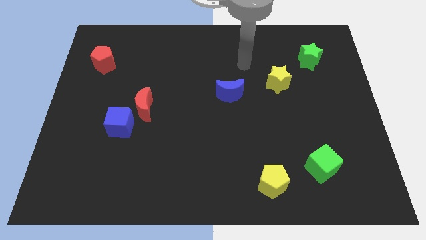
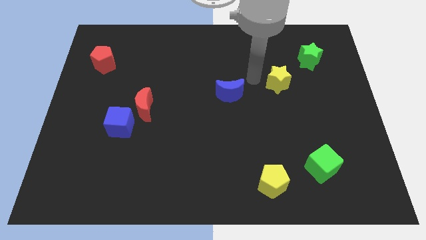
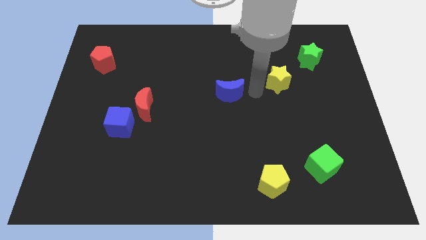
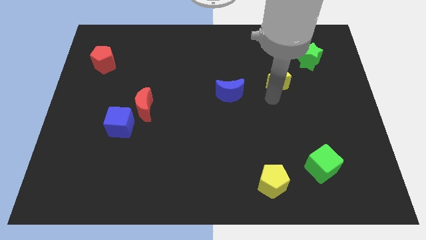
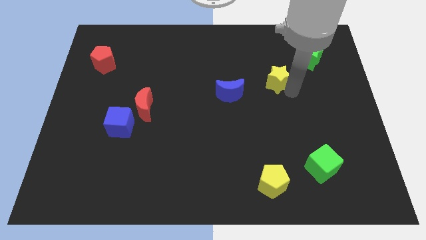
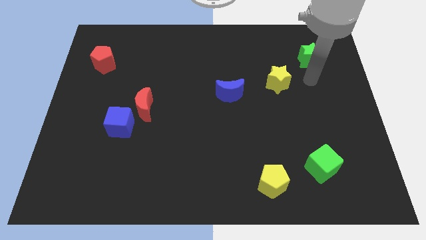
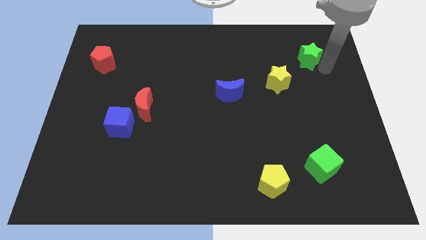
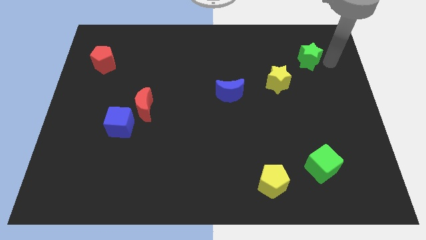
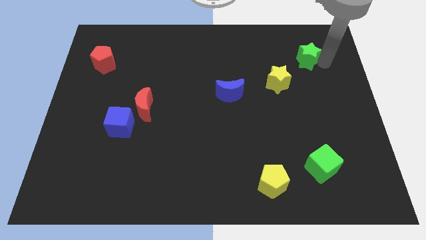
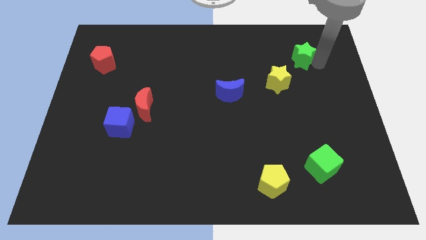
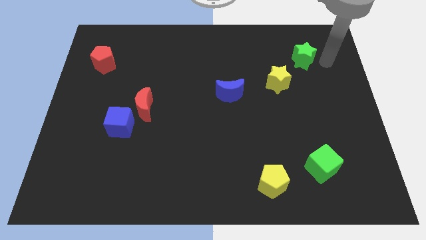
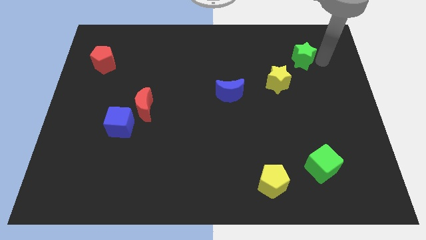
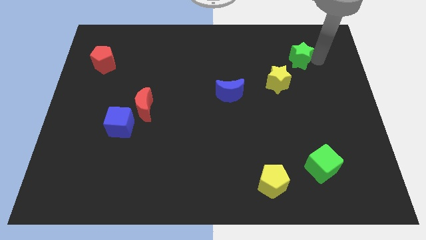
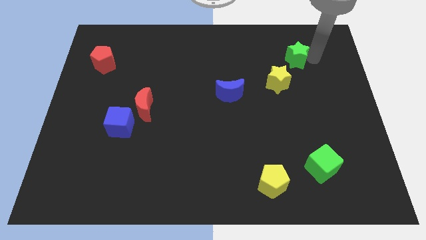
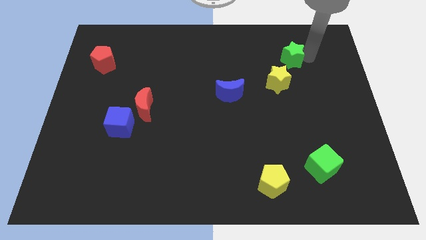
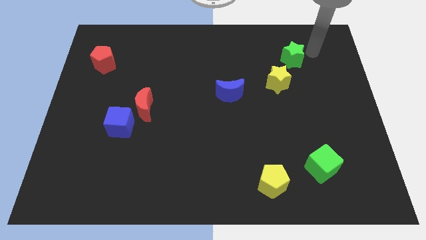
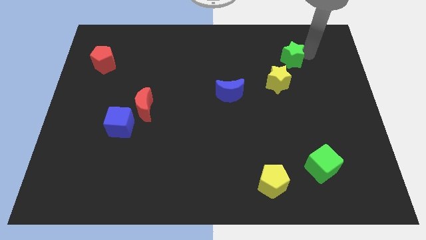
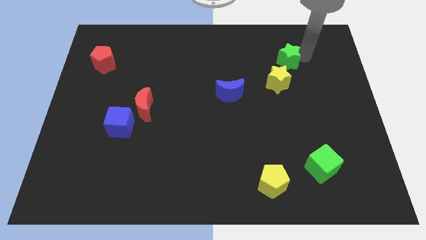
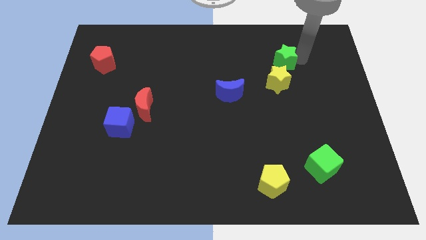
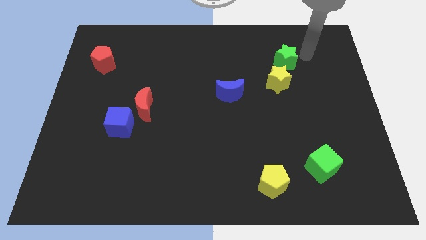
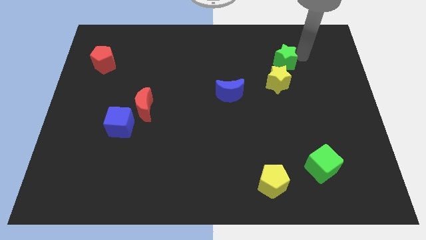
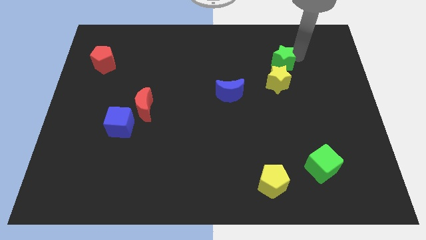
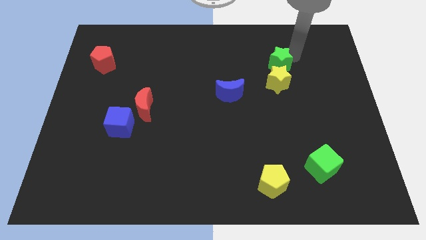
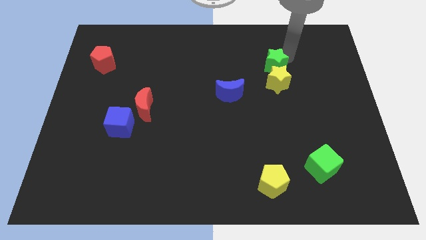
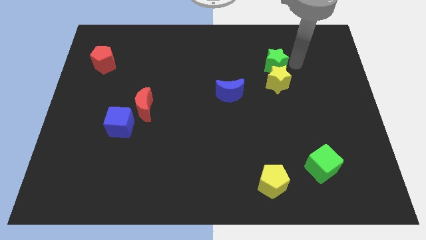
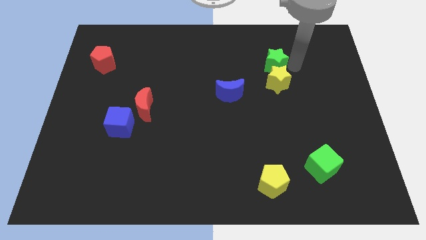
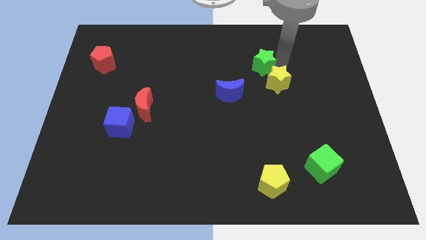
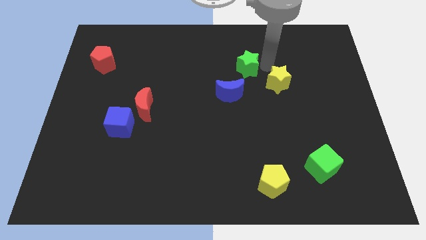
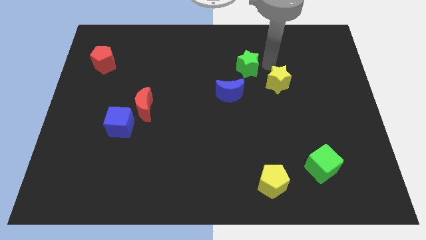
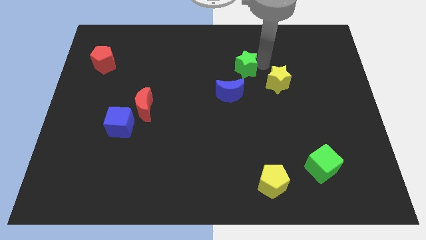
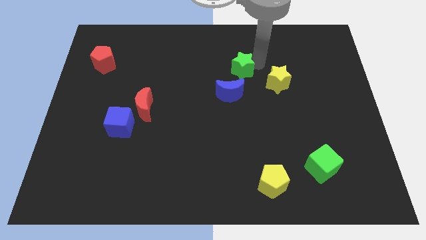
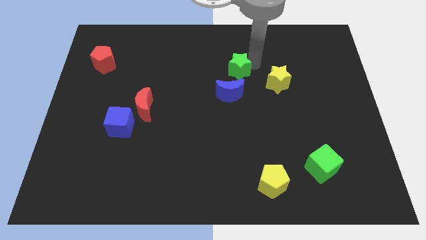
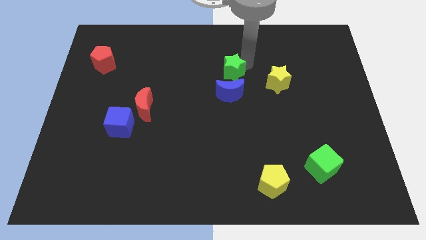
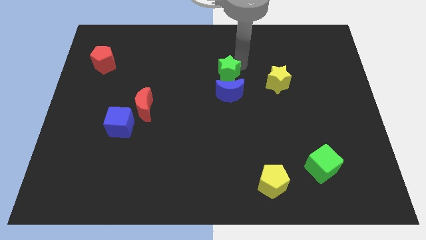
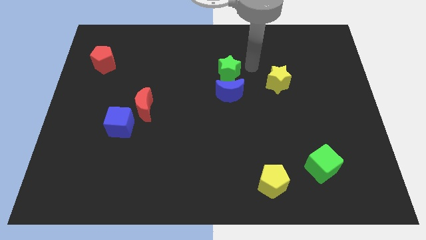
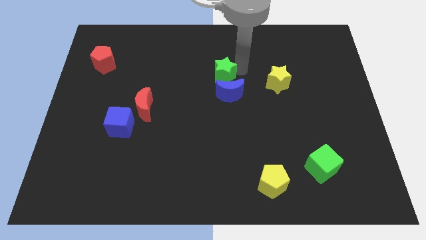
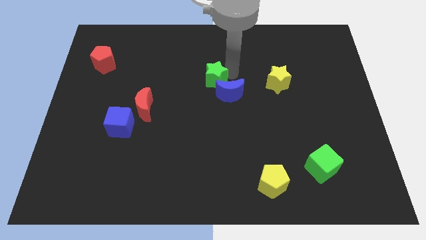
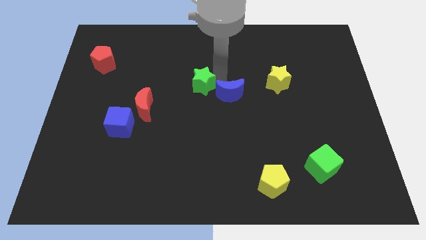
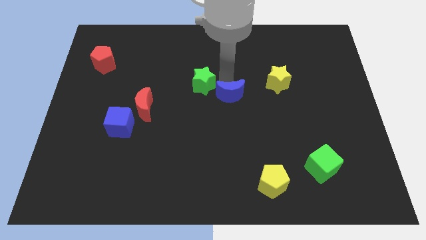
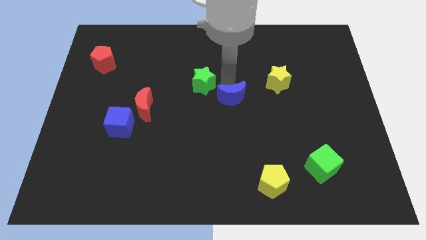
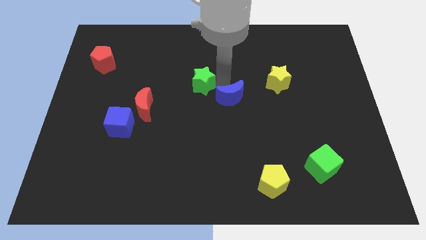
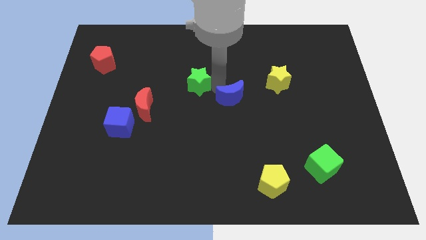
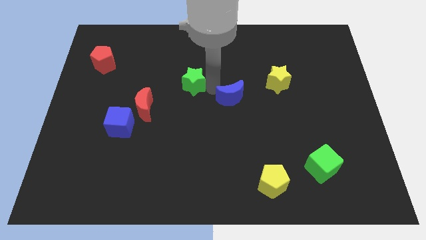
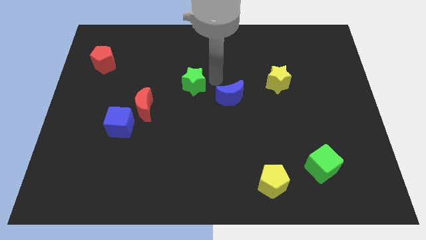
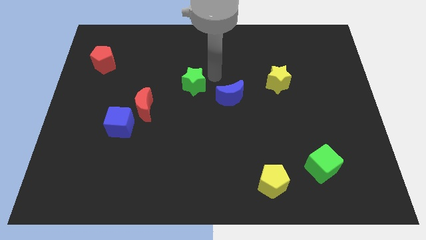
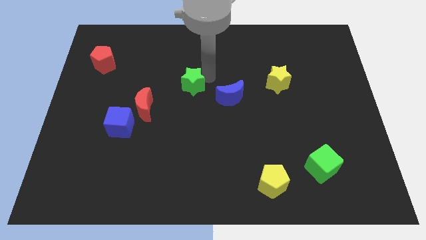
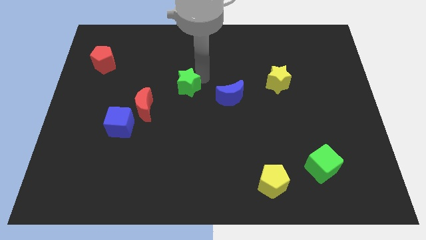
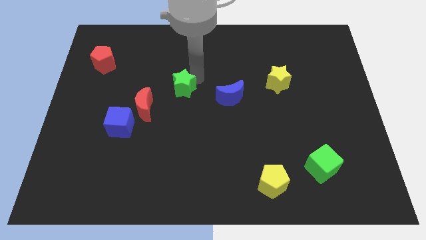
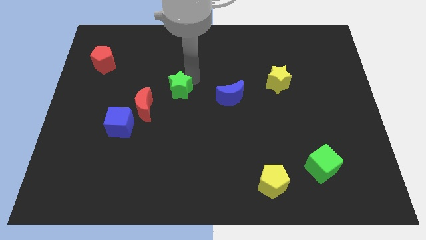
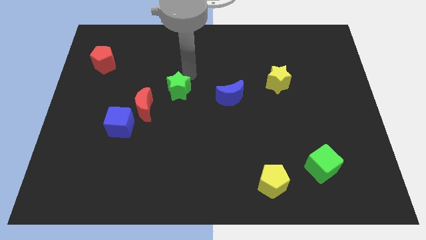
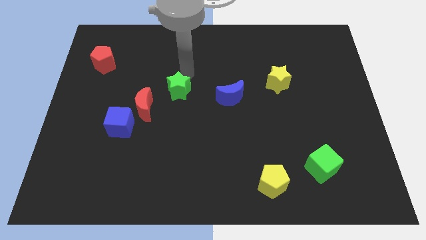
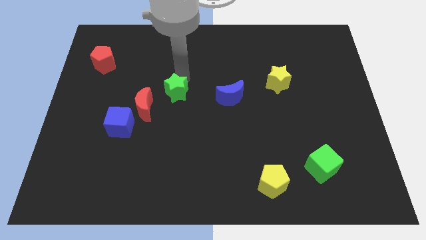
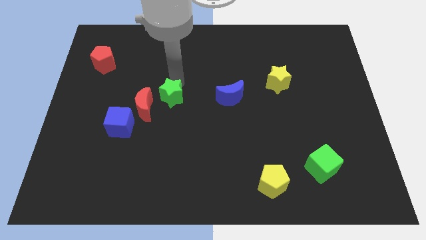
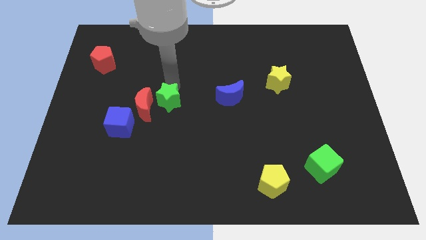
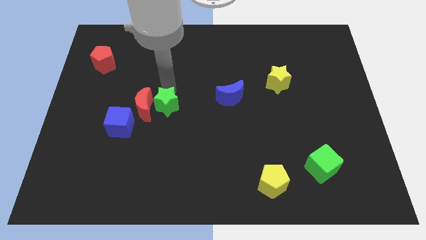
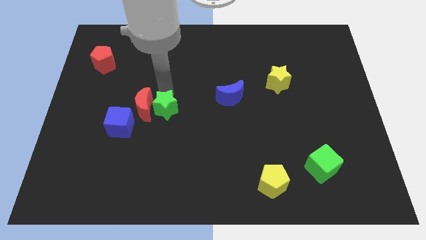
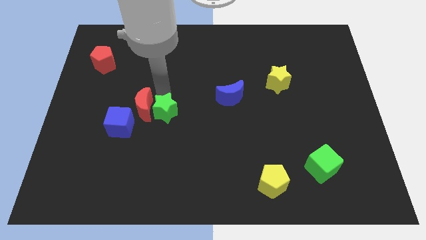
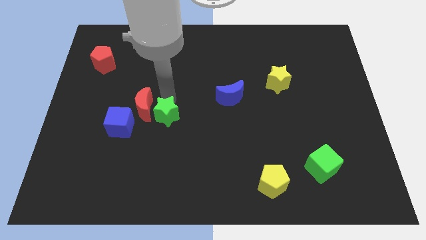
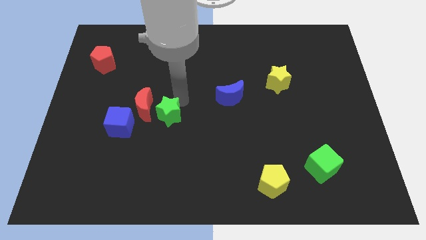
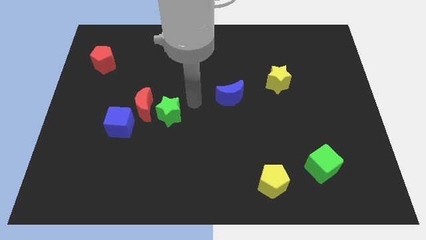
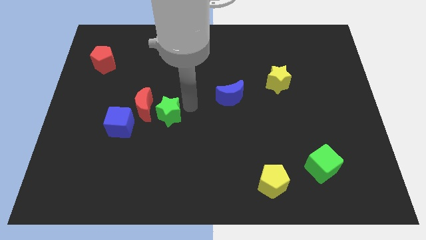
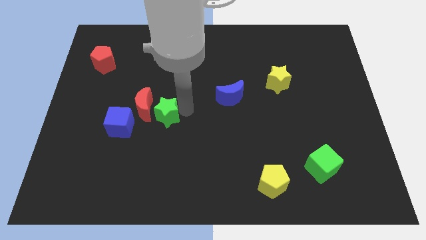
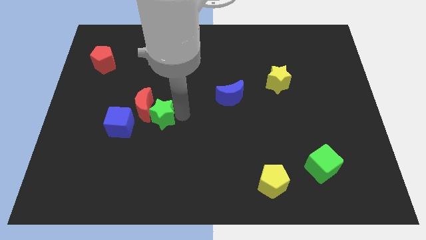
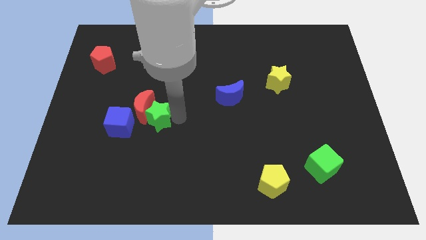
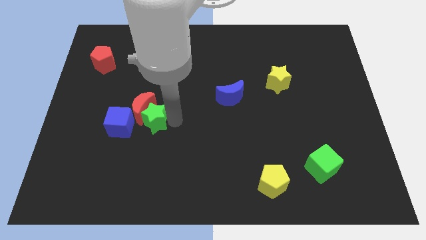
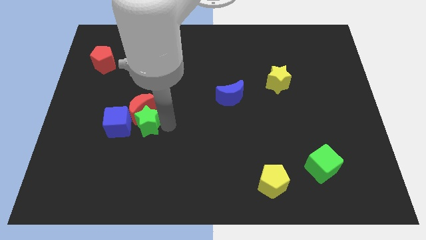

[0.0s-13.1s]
push the green star to the bottom left of the red moon

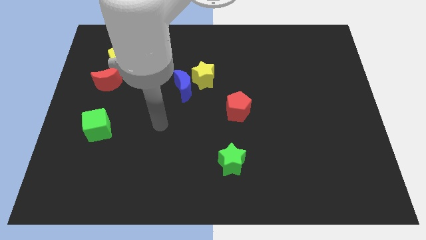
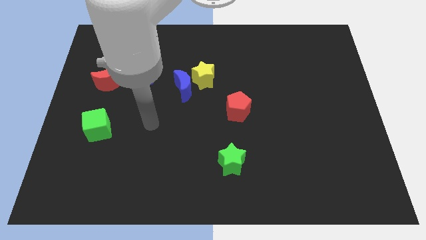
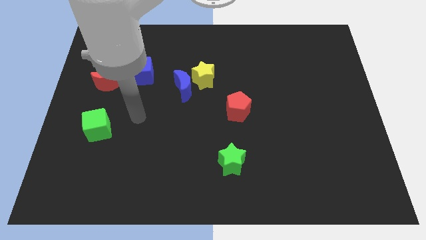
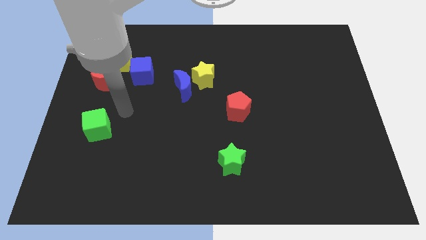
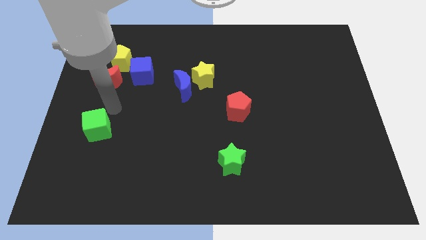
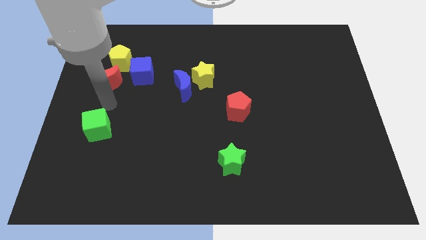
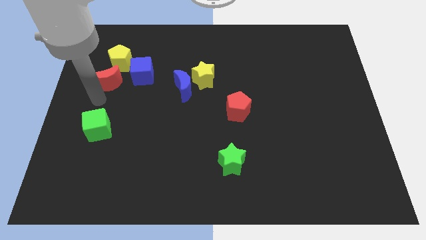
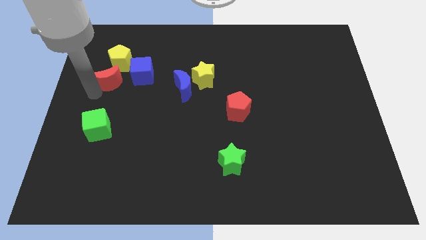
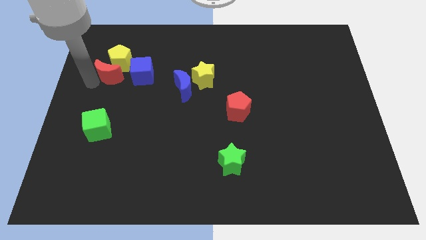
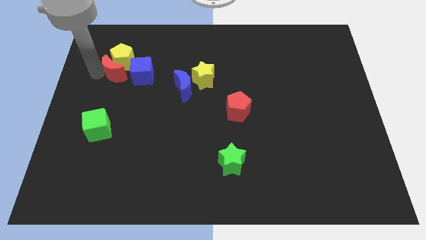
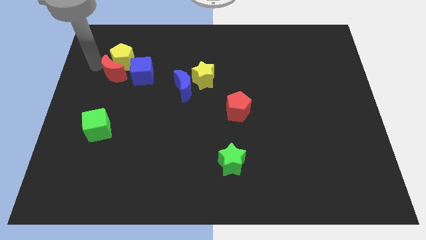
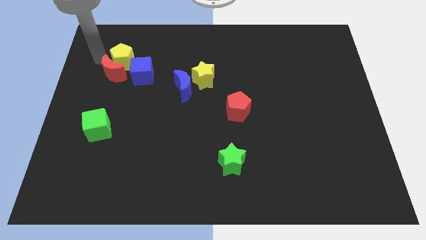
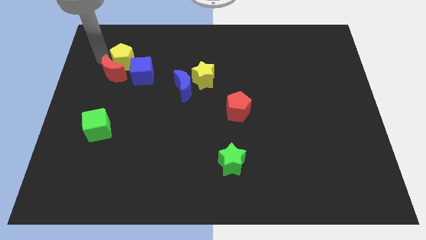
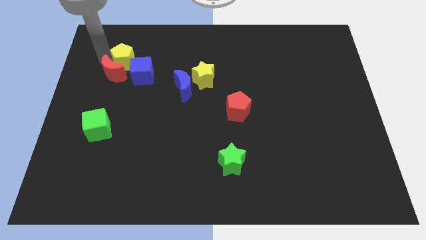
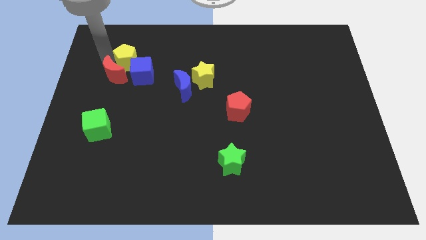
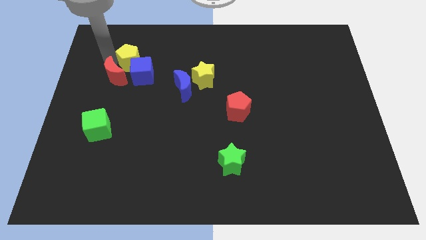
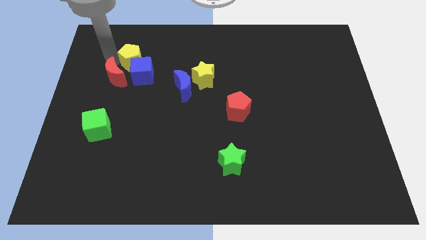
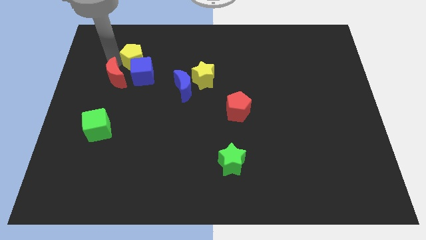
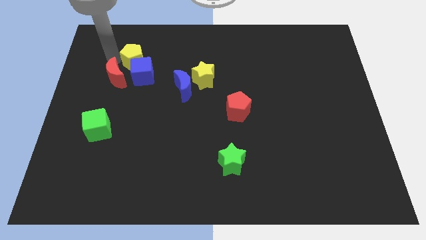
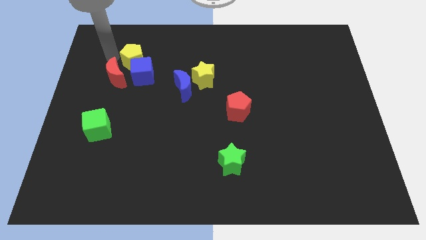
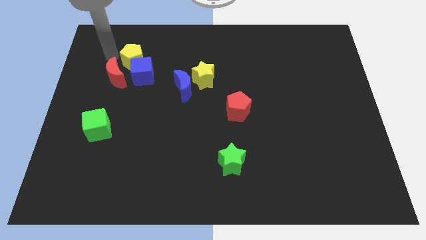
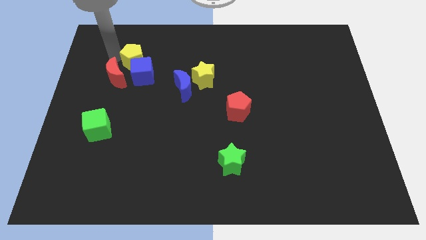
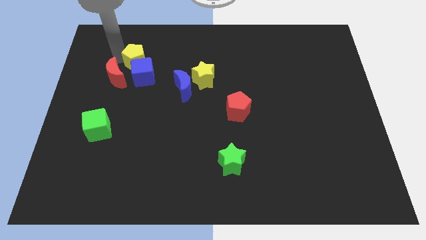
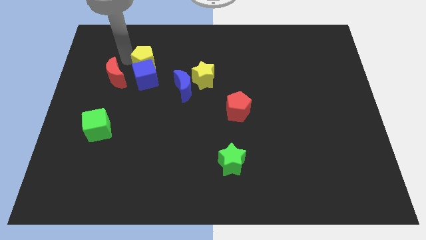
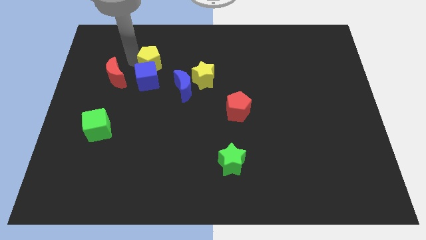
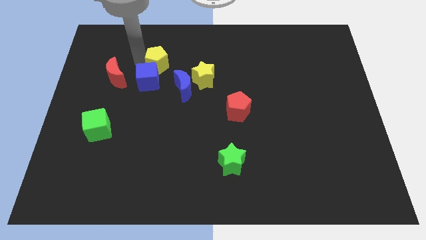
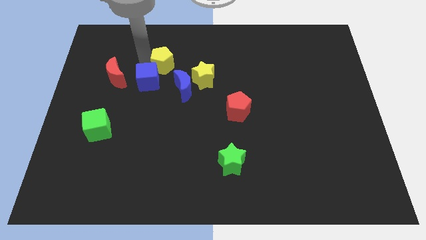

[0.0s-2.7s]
move the yellow pentagon to the top left side of the yellow star
